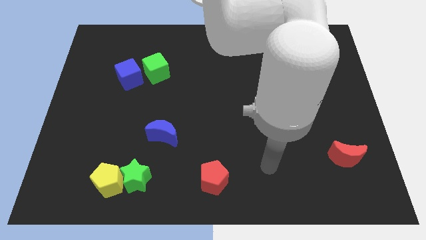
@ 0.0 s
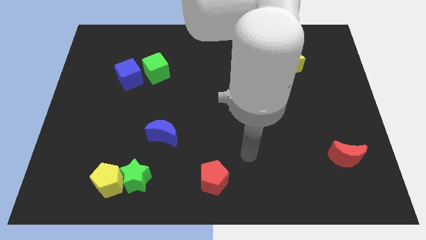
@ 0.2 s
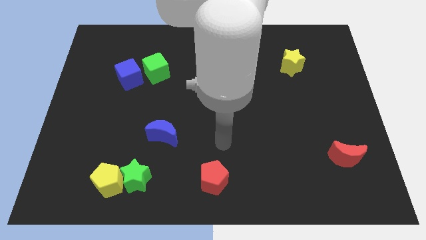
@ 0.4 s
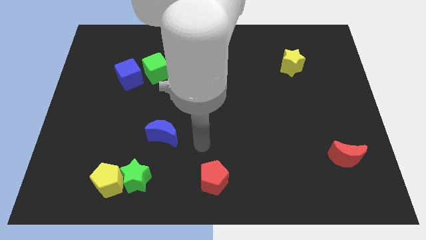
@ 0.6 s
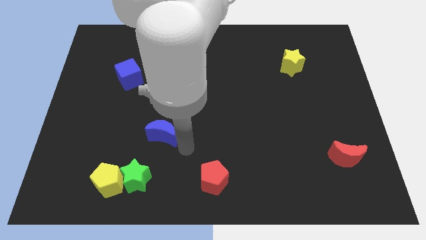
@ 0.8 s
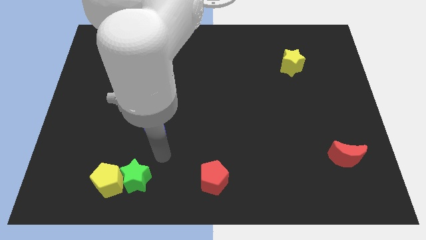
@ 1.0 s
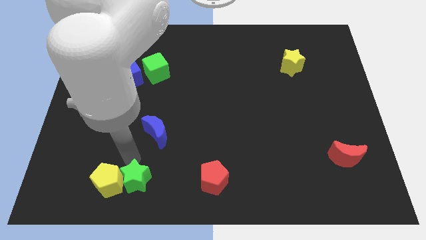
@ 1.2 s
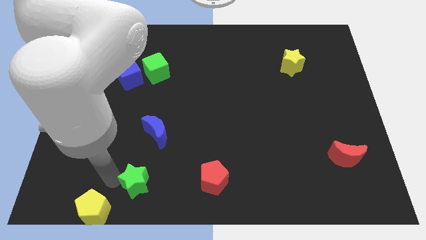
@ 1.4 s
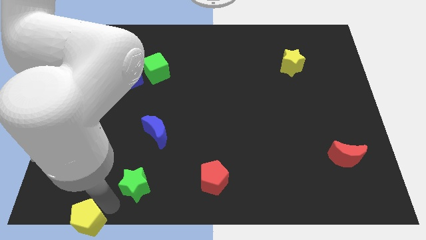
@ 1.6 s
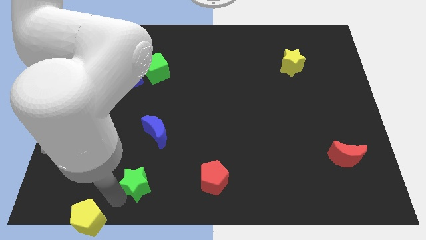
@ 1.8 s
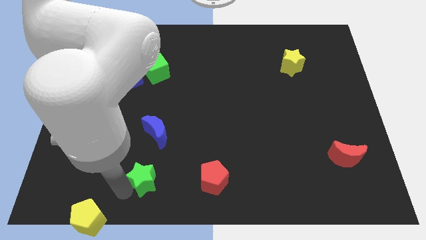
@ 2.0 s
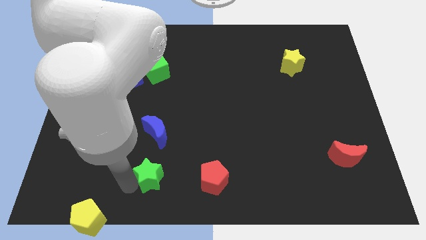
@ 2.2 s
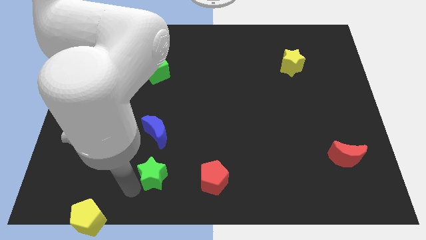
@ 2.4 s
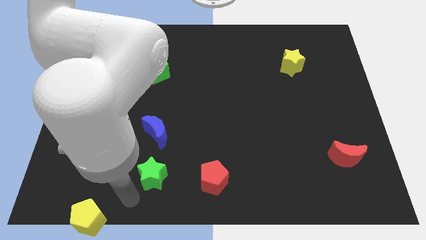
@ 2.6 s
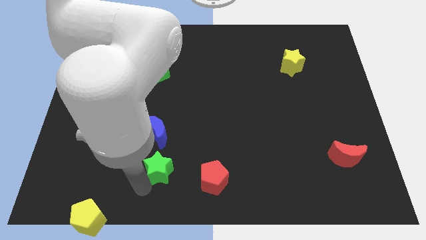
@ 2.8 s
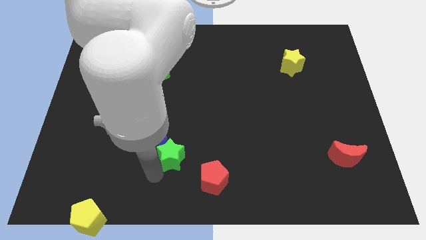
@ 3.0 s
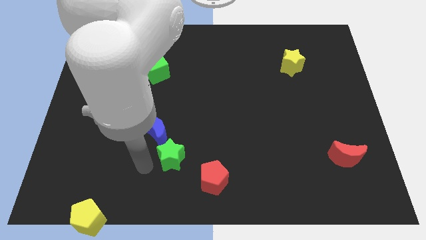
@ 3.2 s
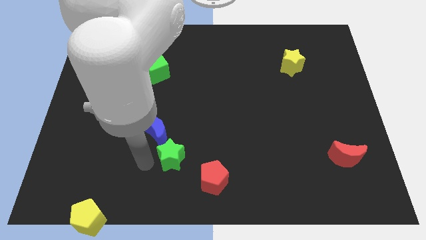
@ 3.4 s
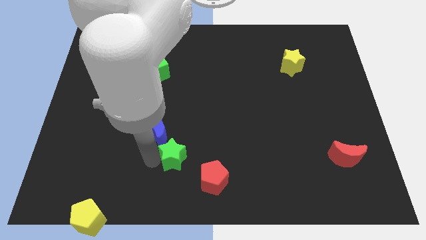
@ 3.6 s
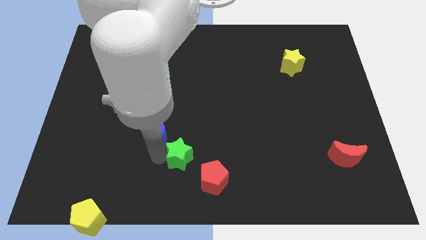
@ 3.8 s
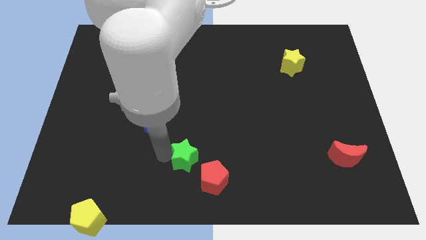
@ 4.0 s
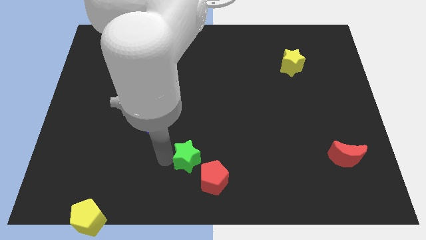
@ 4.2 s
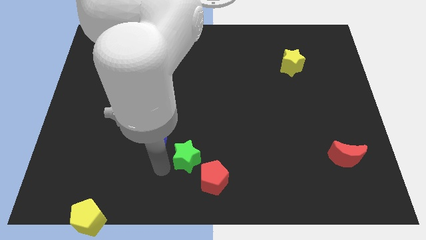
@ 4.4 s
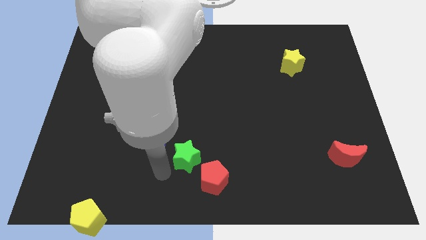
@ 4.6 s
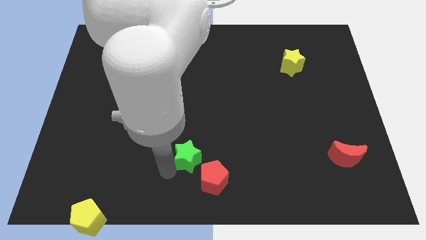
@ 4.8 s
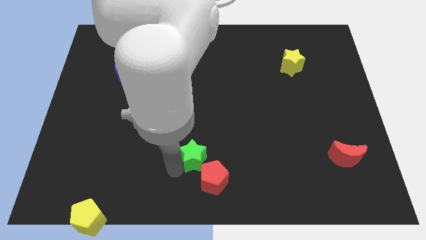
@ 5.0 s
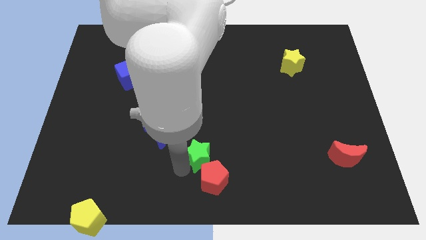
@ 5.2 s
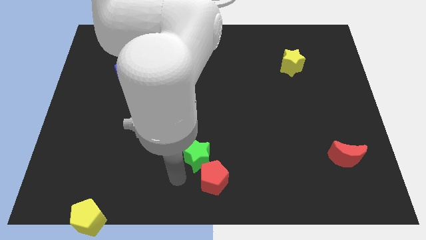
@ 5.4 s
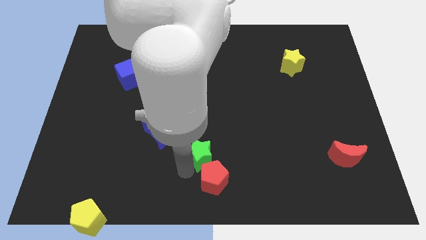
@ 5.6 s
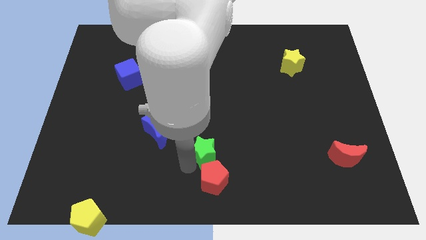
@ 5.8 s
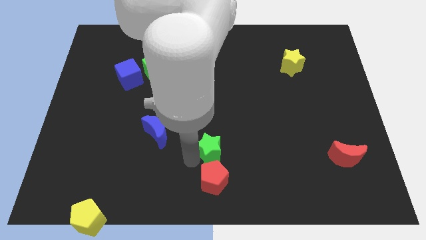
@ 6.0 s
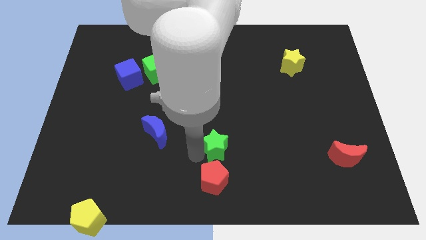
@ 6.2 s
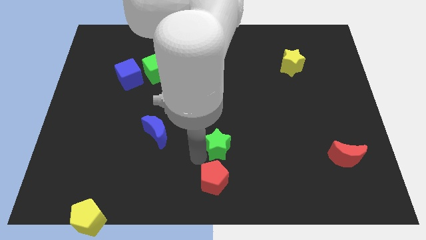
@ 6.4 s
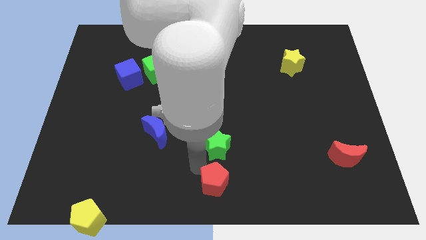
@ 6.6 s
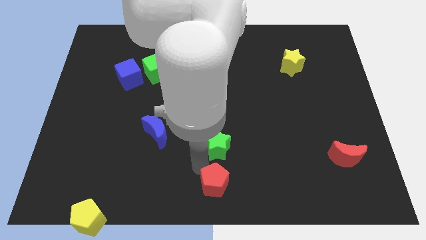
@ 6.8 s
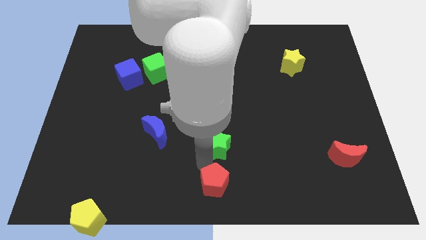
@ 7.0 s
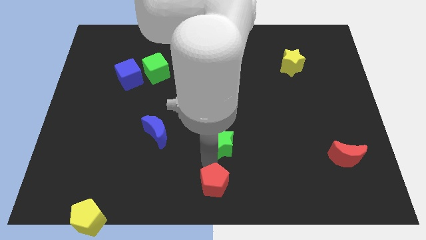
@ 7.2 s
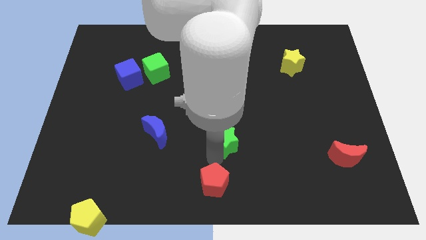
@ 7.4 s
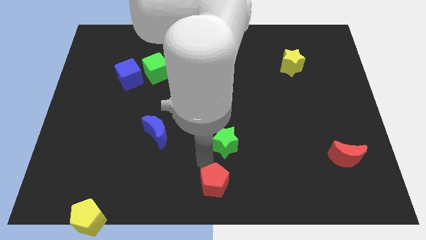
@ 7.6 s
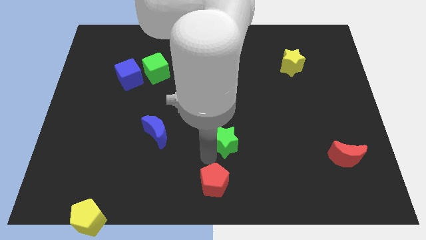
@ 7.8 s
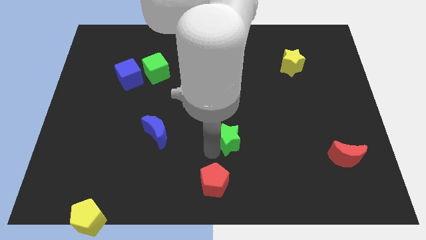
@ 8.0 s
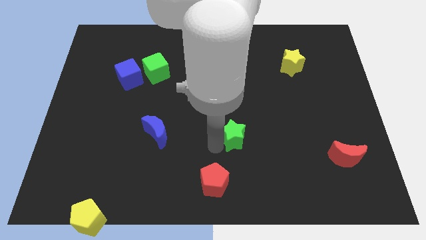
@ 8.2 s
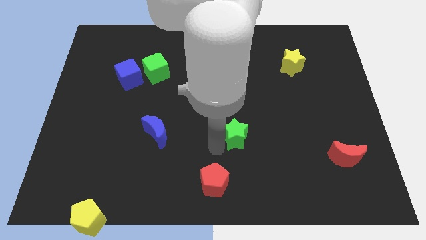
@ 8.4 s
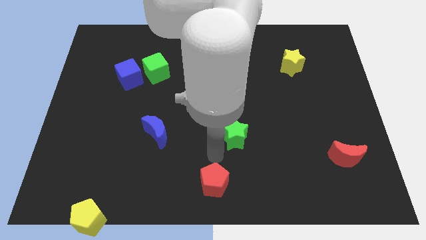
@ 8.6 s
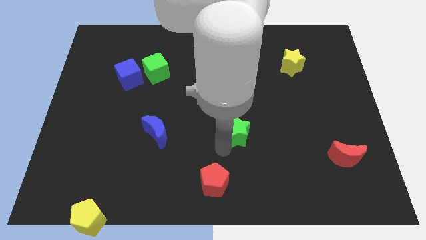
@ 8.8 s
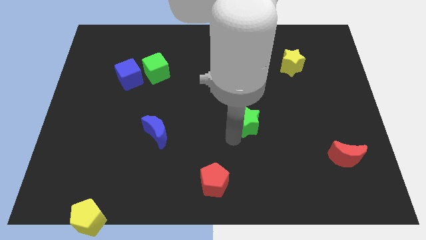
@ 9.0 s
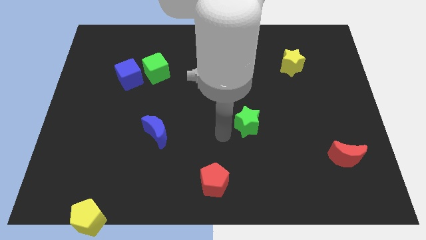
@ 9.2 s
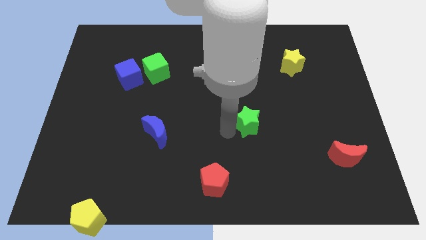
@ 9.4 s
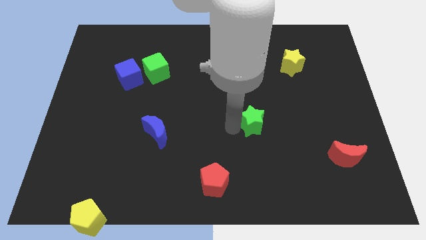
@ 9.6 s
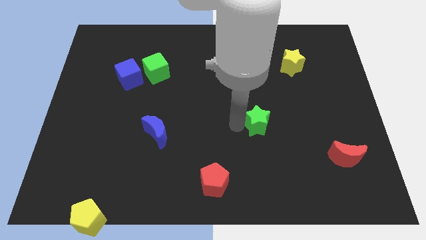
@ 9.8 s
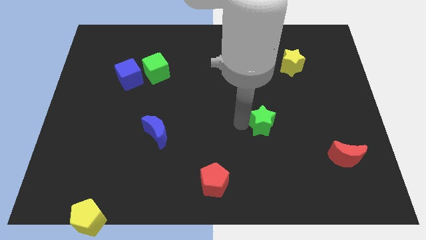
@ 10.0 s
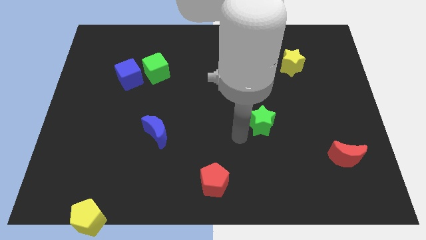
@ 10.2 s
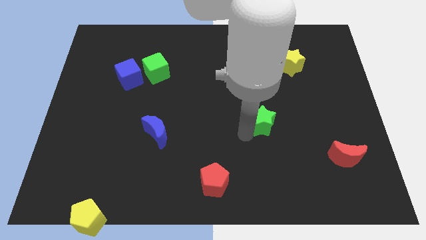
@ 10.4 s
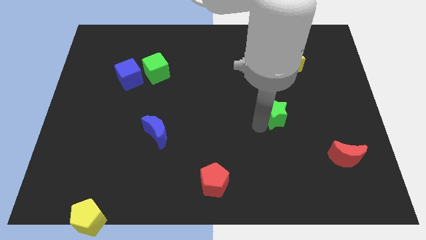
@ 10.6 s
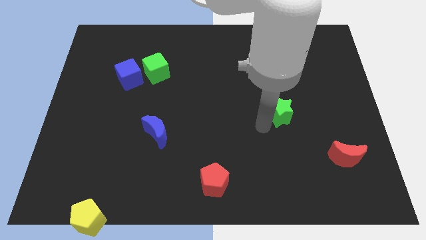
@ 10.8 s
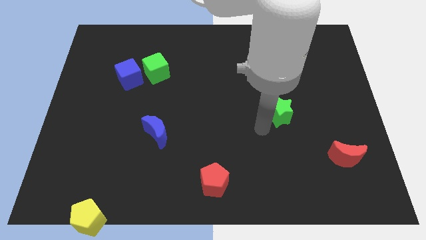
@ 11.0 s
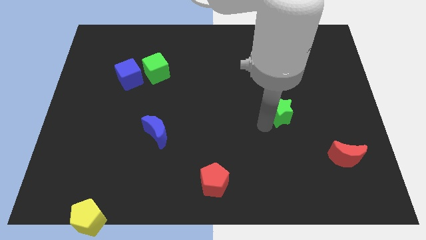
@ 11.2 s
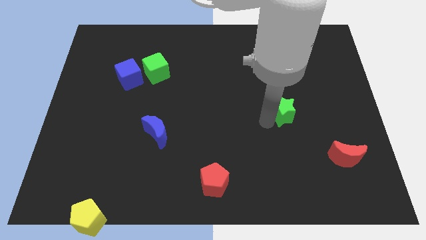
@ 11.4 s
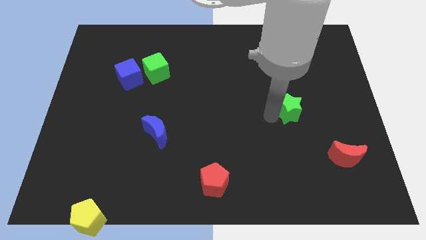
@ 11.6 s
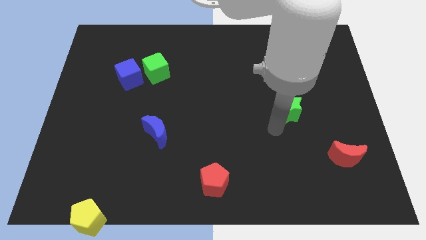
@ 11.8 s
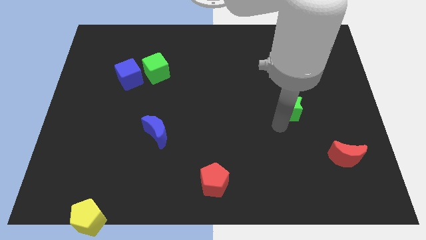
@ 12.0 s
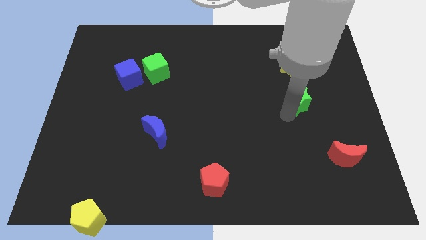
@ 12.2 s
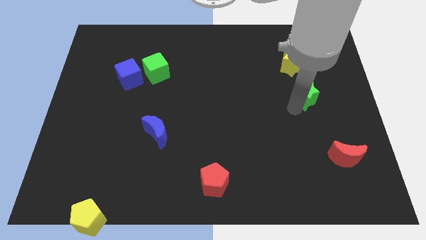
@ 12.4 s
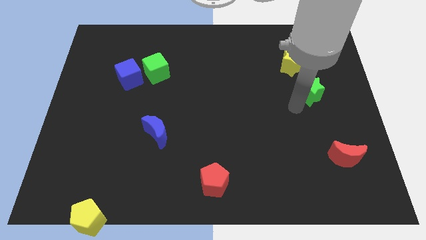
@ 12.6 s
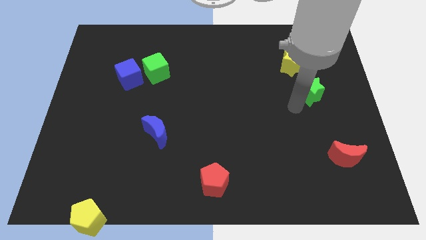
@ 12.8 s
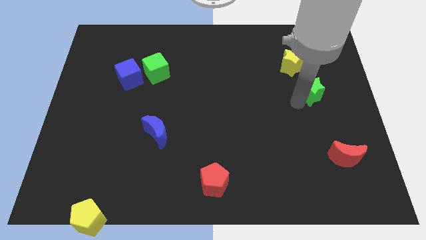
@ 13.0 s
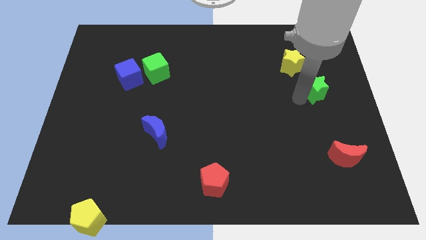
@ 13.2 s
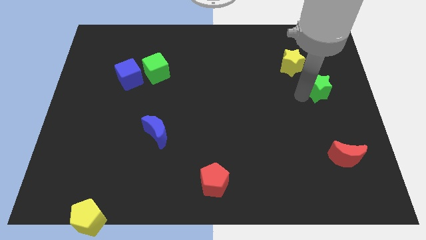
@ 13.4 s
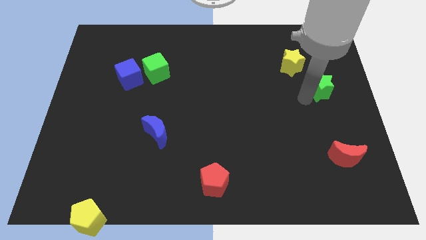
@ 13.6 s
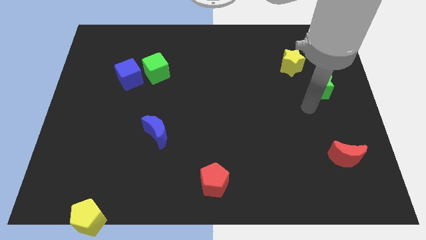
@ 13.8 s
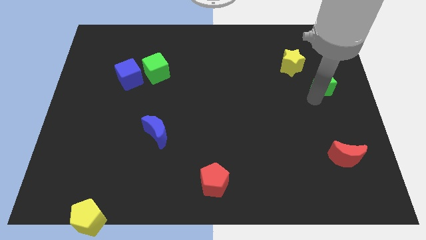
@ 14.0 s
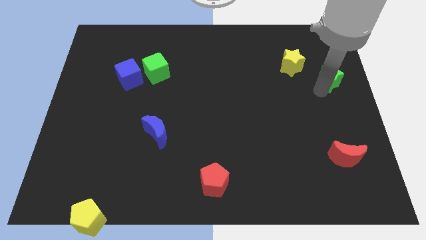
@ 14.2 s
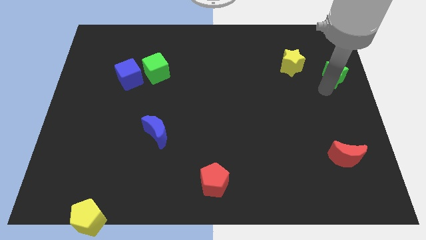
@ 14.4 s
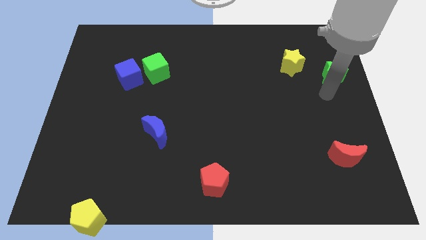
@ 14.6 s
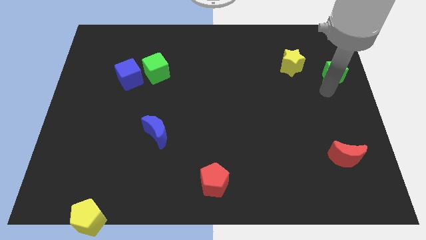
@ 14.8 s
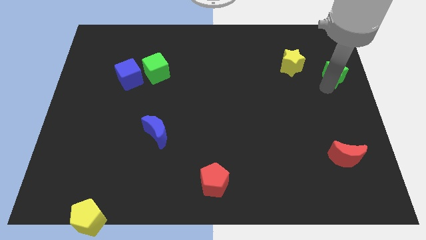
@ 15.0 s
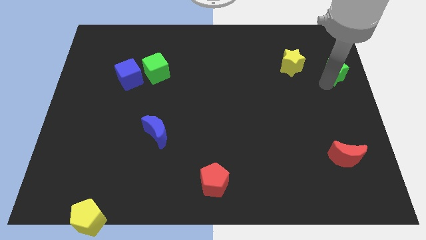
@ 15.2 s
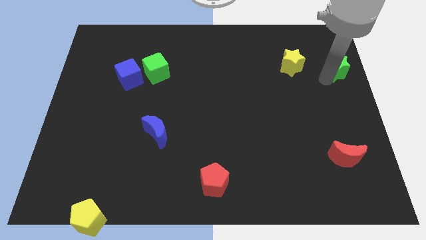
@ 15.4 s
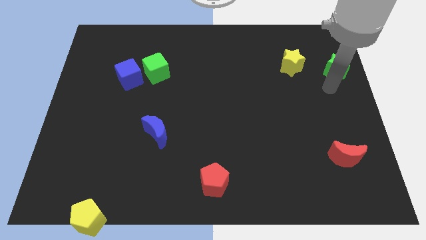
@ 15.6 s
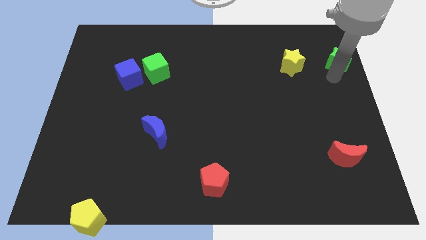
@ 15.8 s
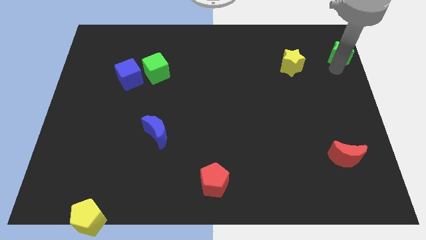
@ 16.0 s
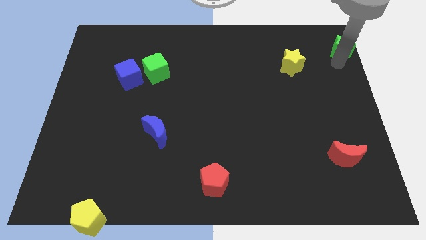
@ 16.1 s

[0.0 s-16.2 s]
push the green star to the top right corner
